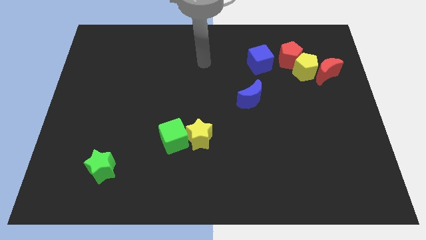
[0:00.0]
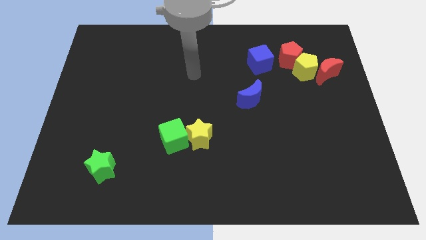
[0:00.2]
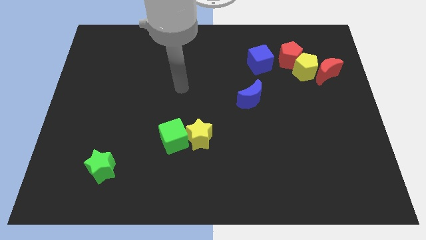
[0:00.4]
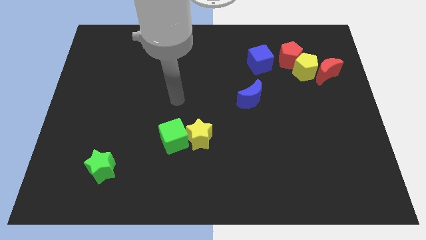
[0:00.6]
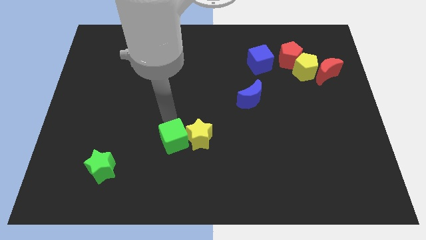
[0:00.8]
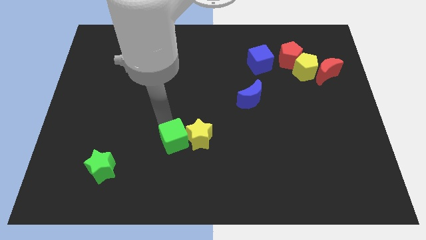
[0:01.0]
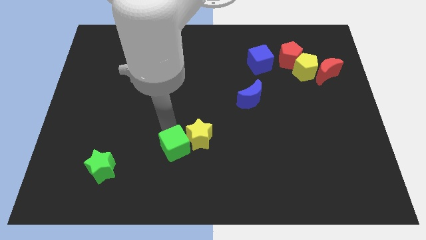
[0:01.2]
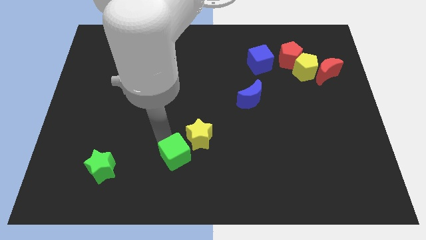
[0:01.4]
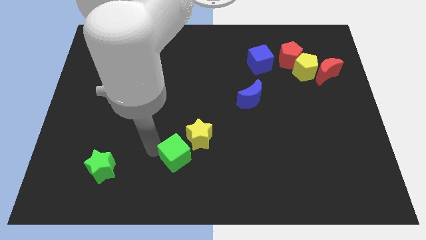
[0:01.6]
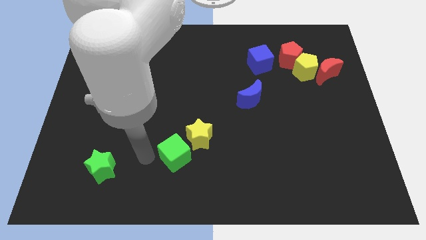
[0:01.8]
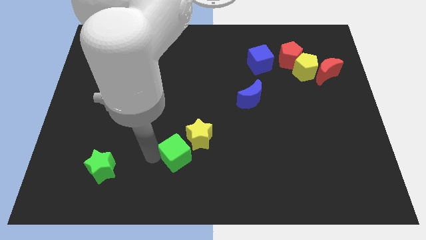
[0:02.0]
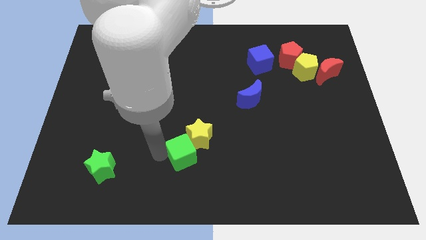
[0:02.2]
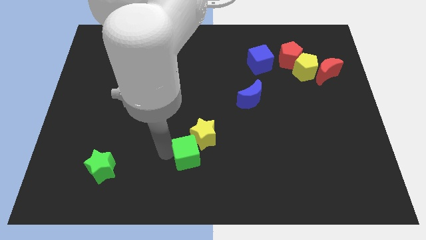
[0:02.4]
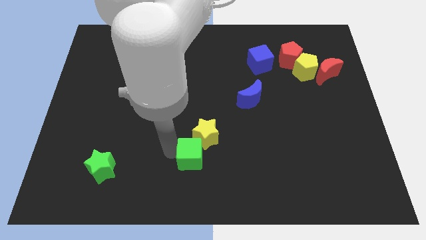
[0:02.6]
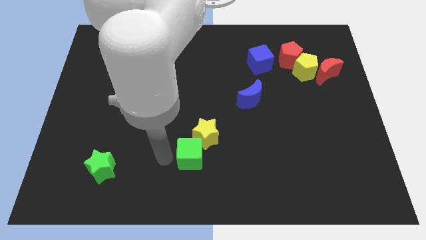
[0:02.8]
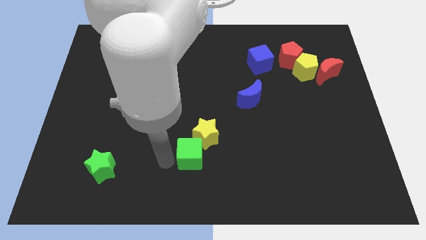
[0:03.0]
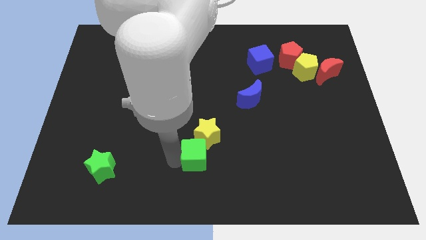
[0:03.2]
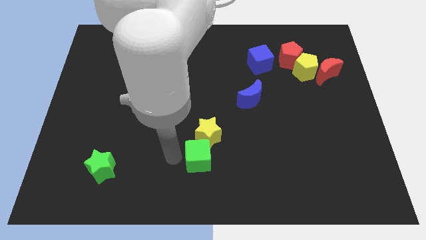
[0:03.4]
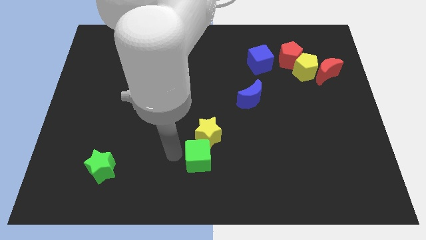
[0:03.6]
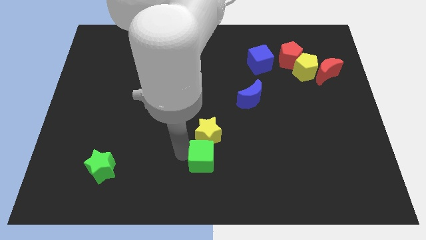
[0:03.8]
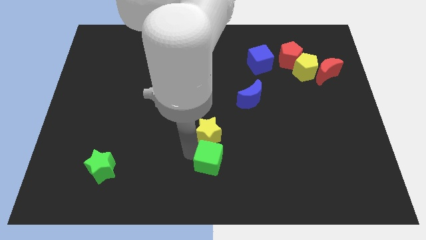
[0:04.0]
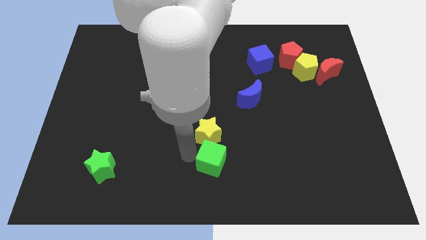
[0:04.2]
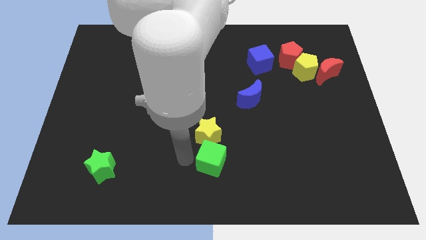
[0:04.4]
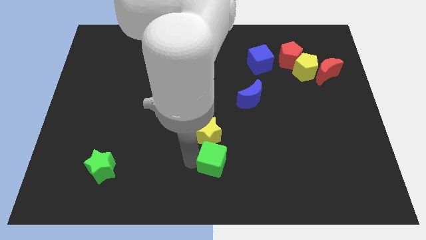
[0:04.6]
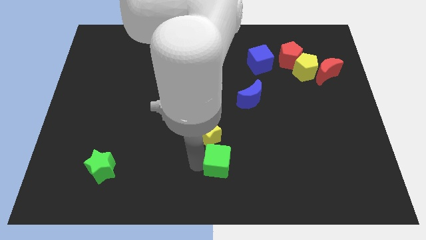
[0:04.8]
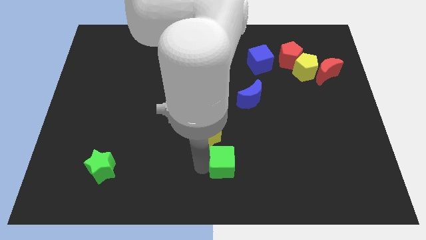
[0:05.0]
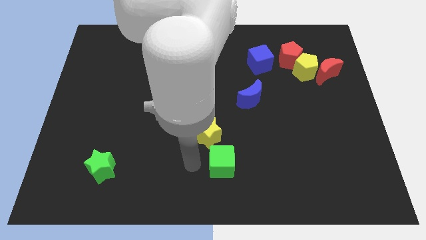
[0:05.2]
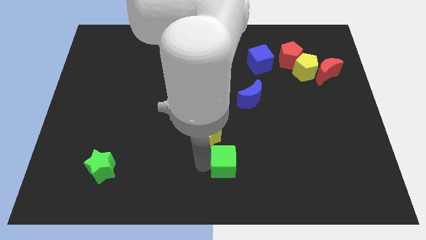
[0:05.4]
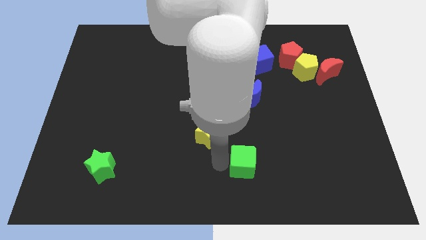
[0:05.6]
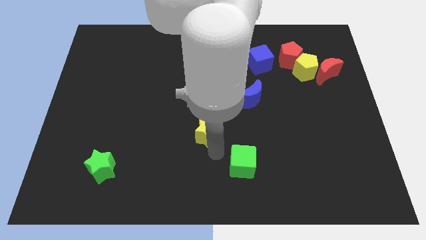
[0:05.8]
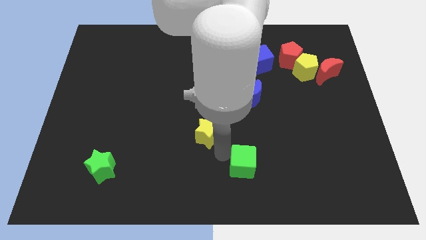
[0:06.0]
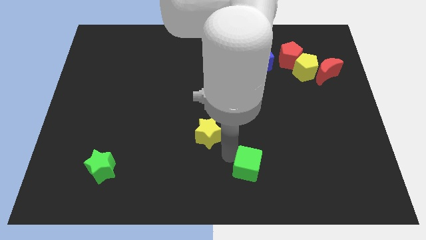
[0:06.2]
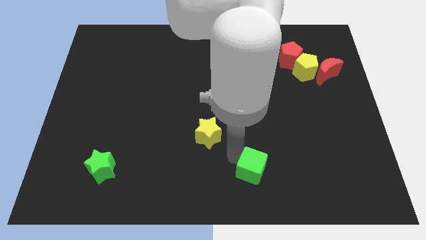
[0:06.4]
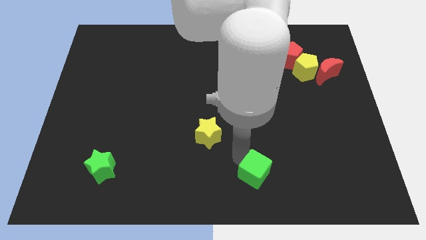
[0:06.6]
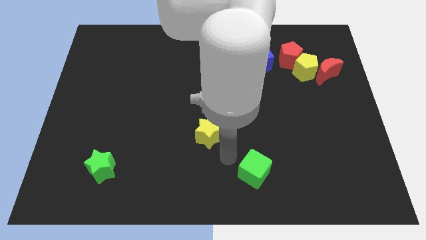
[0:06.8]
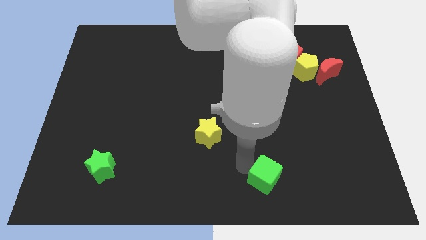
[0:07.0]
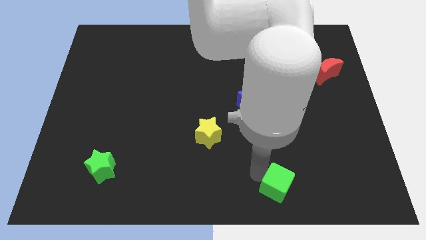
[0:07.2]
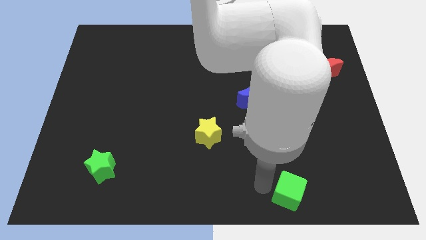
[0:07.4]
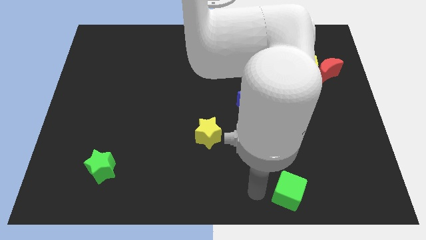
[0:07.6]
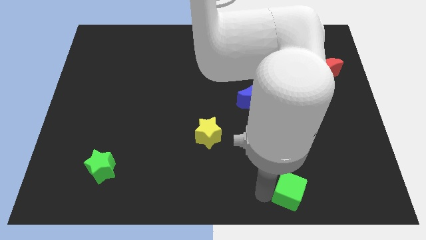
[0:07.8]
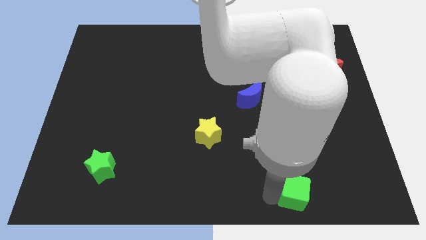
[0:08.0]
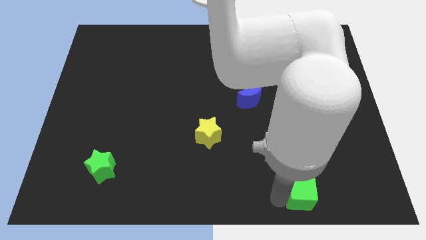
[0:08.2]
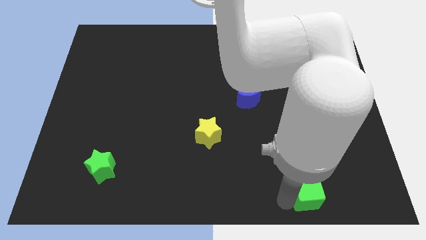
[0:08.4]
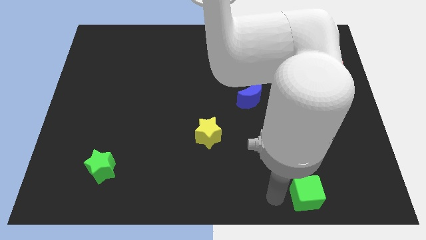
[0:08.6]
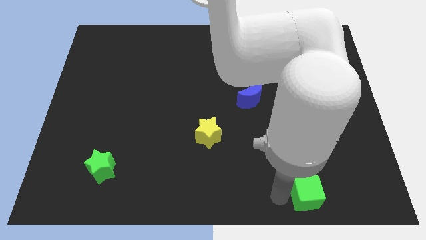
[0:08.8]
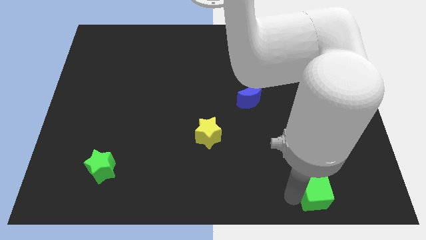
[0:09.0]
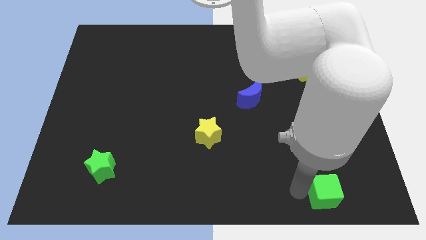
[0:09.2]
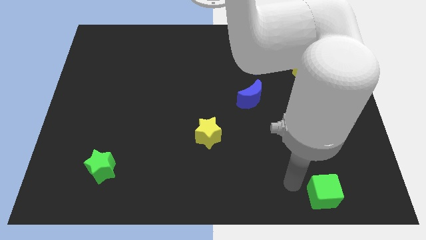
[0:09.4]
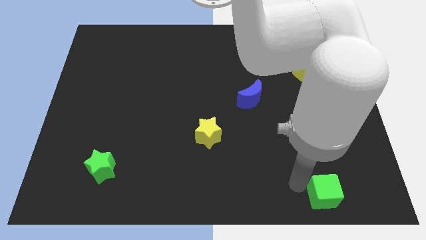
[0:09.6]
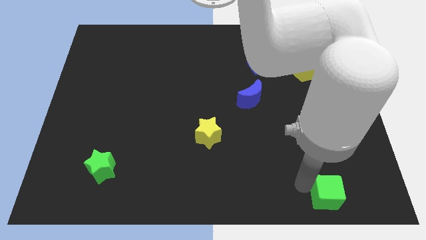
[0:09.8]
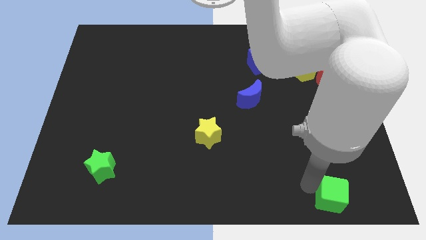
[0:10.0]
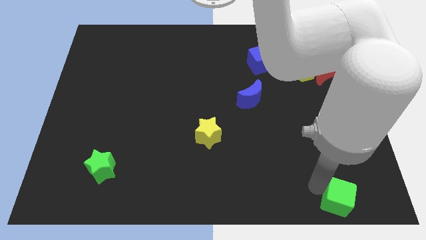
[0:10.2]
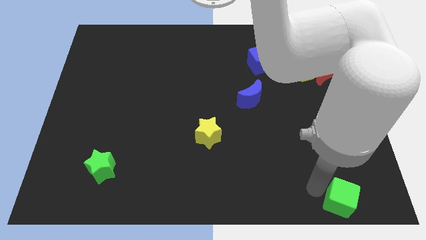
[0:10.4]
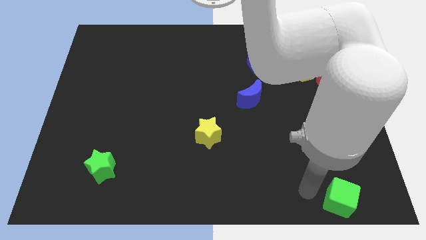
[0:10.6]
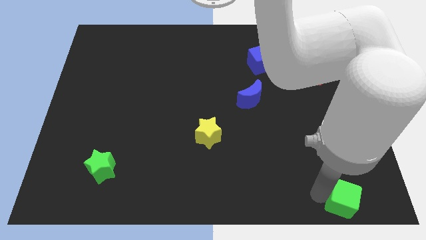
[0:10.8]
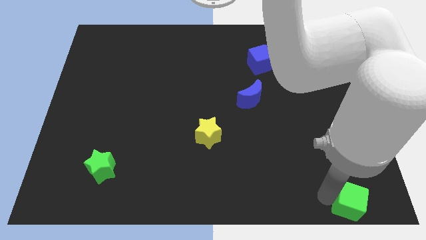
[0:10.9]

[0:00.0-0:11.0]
put the green cube to the bottom right

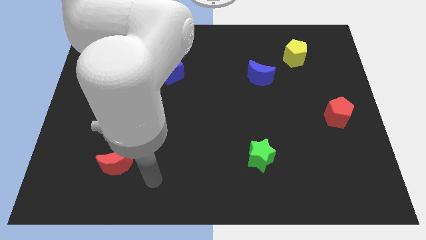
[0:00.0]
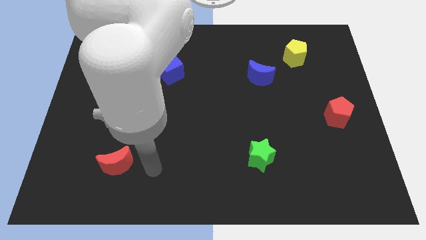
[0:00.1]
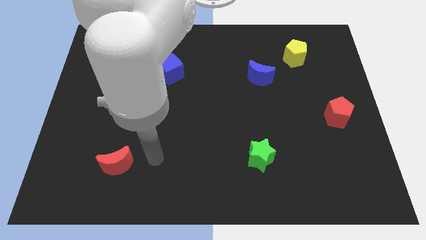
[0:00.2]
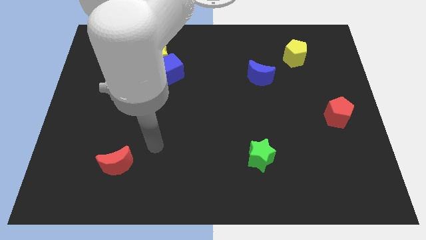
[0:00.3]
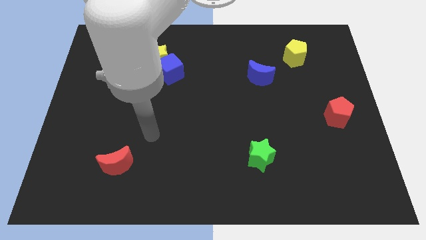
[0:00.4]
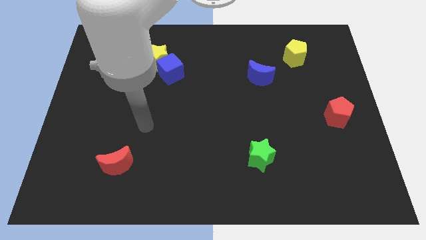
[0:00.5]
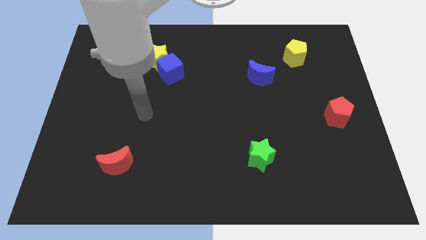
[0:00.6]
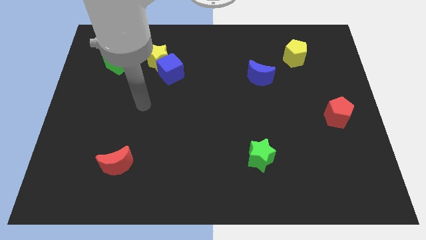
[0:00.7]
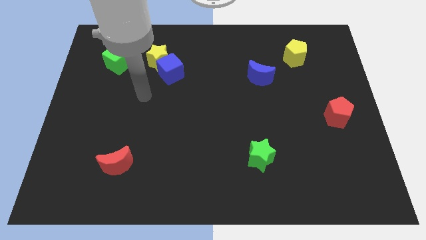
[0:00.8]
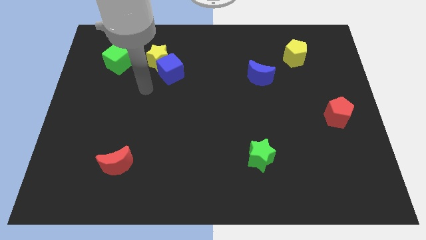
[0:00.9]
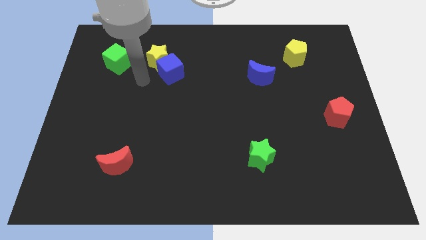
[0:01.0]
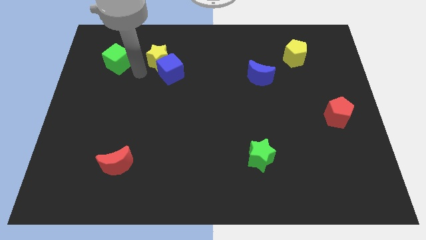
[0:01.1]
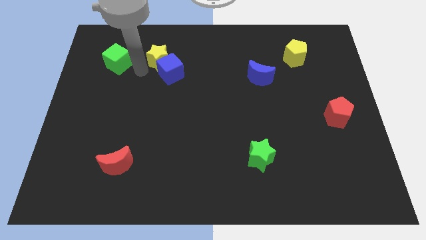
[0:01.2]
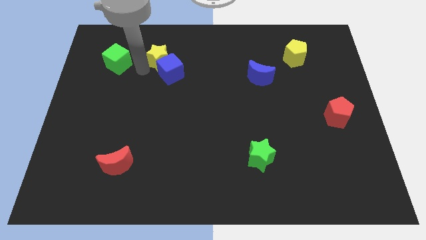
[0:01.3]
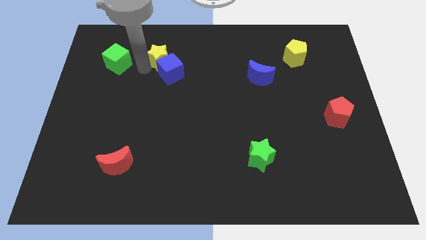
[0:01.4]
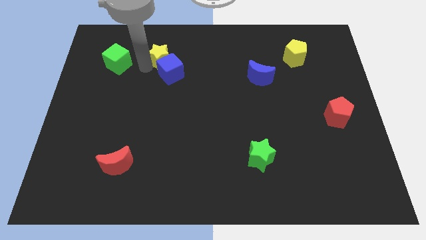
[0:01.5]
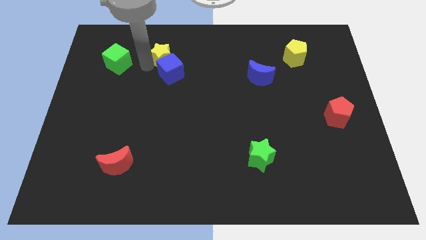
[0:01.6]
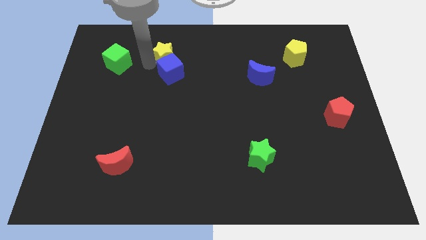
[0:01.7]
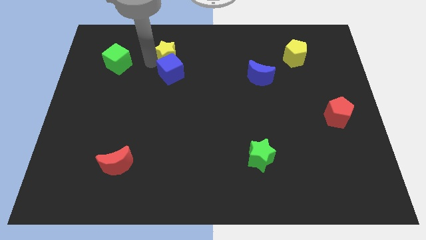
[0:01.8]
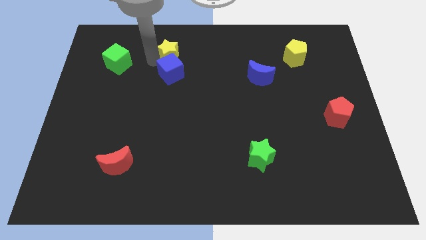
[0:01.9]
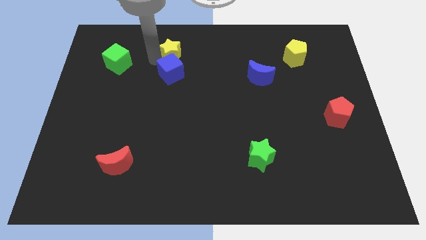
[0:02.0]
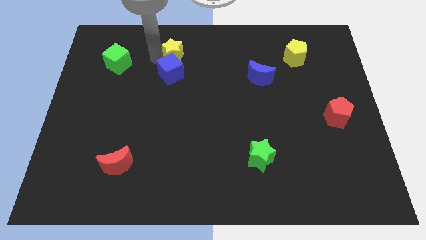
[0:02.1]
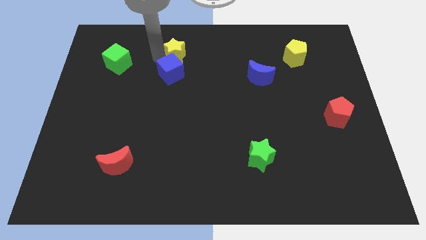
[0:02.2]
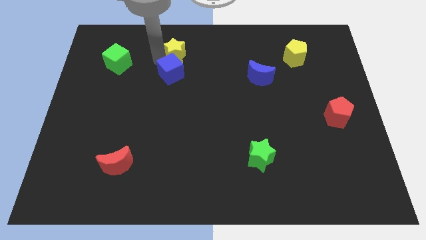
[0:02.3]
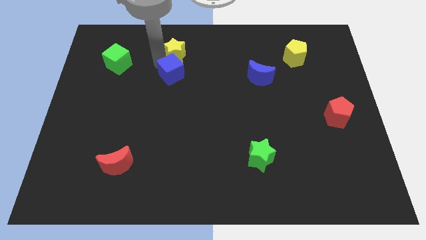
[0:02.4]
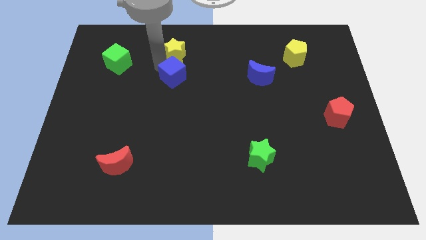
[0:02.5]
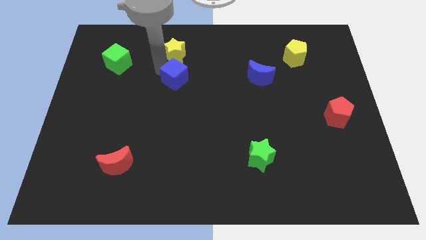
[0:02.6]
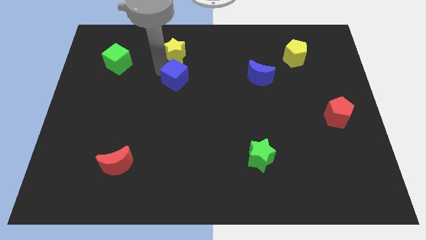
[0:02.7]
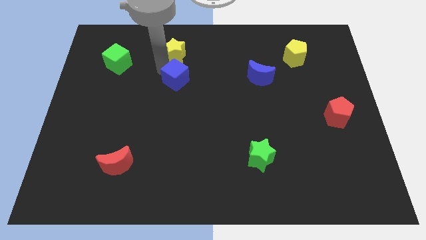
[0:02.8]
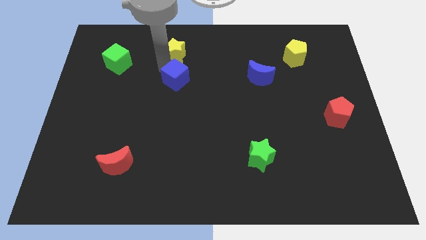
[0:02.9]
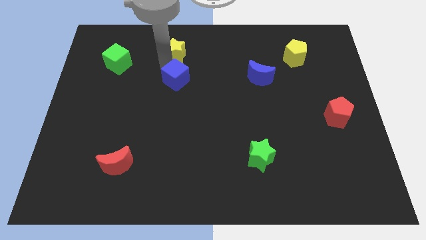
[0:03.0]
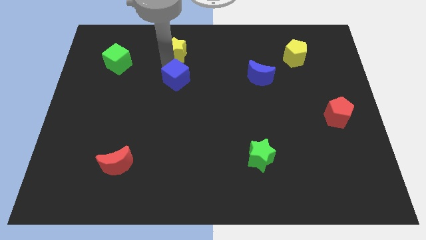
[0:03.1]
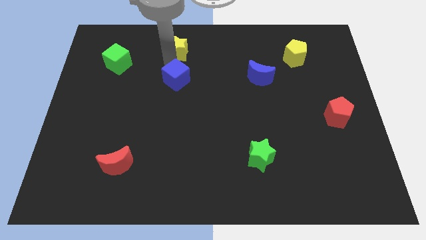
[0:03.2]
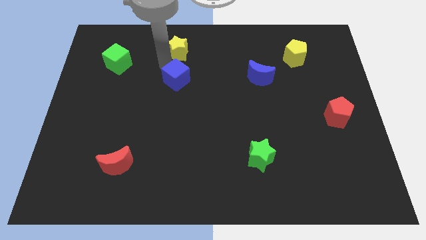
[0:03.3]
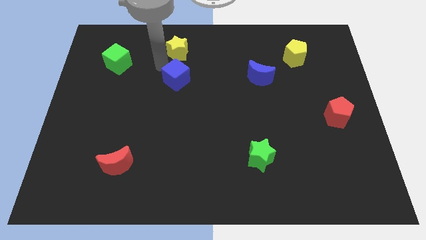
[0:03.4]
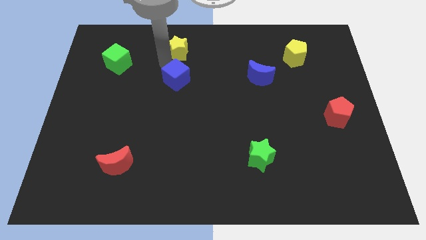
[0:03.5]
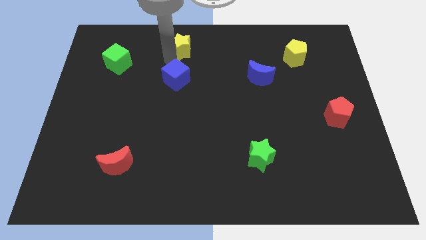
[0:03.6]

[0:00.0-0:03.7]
put the yellow star to the top side
